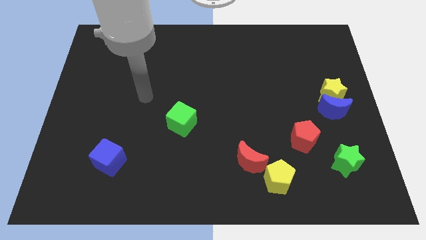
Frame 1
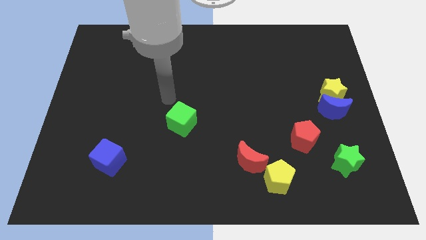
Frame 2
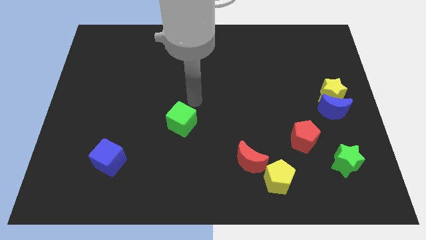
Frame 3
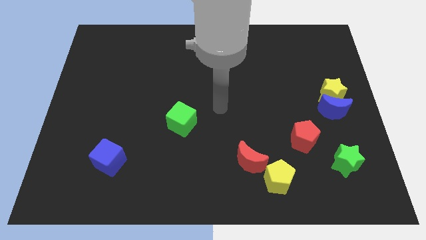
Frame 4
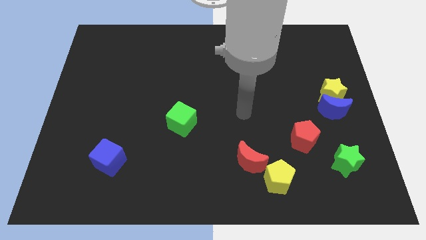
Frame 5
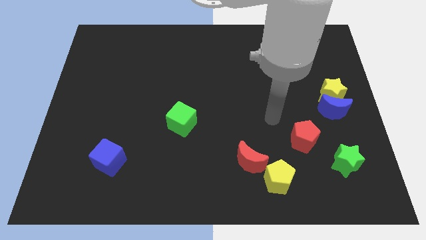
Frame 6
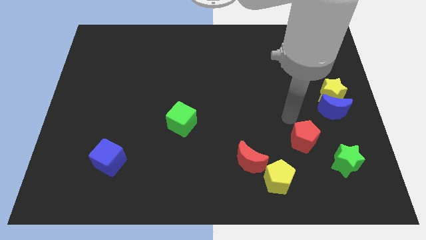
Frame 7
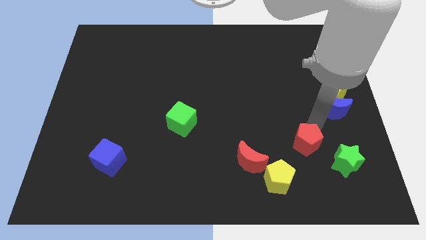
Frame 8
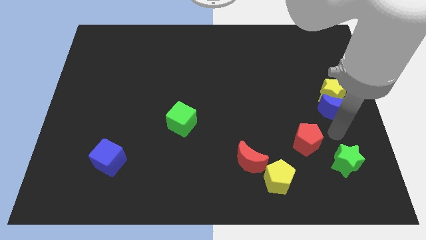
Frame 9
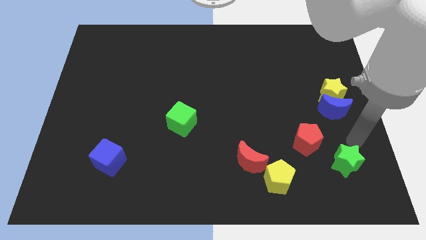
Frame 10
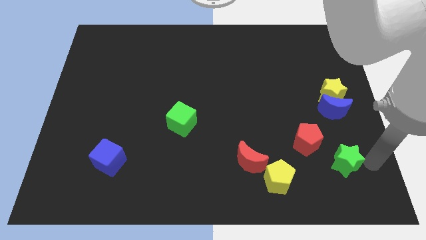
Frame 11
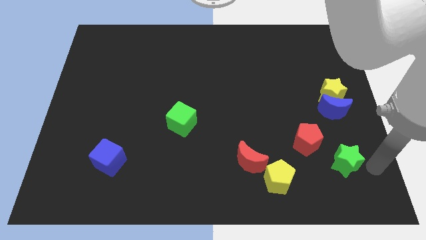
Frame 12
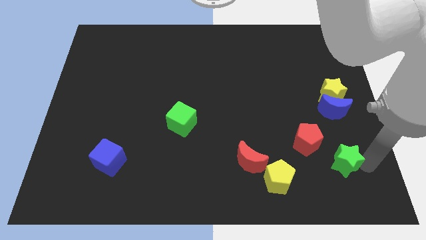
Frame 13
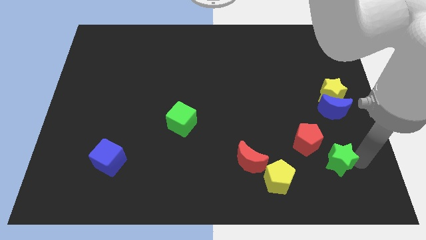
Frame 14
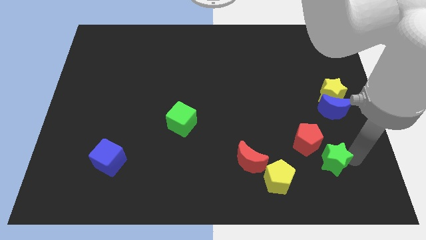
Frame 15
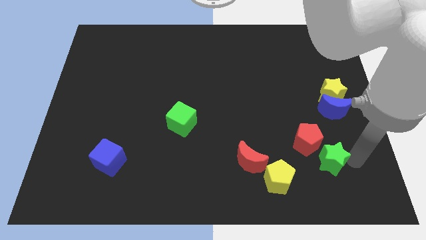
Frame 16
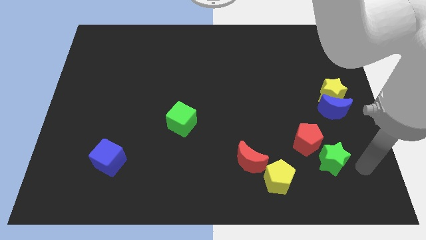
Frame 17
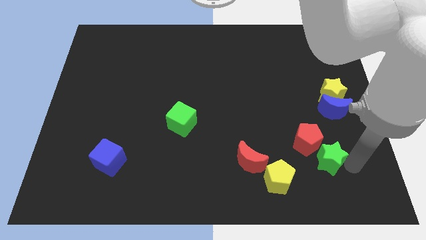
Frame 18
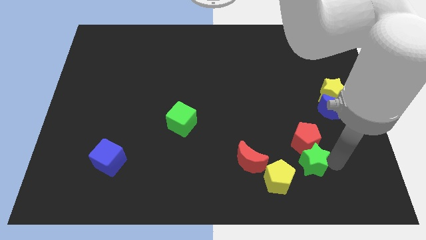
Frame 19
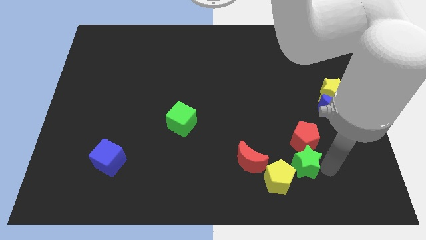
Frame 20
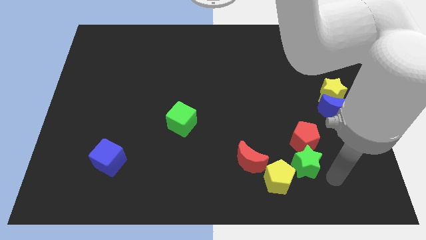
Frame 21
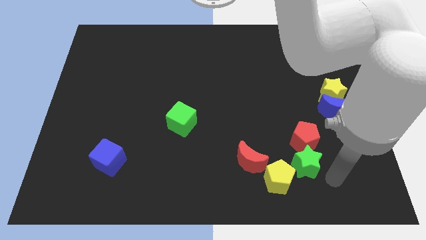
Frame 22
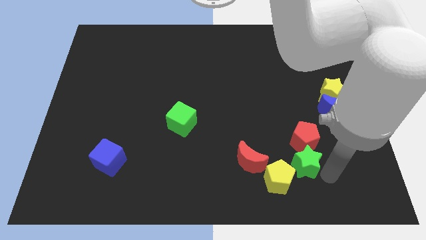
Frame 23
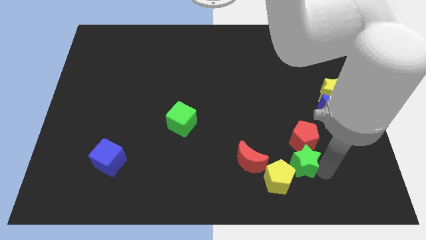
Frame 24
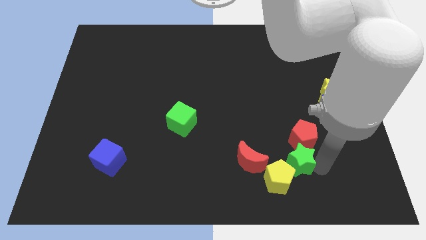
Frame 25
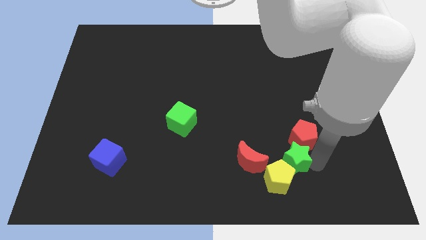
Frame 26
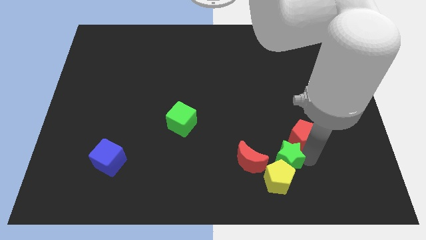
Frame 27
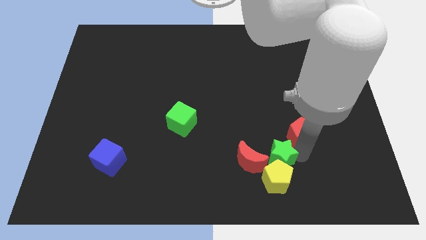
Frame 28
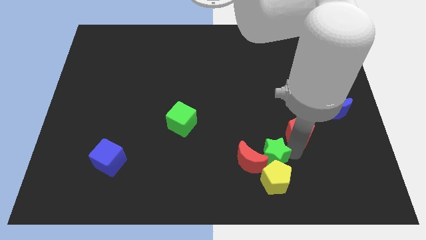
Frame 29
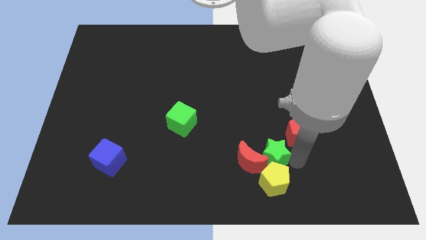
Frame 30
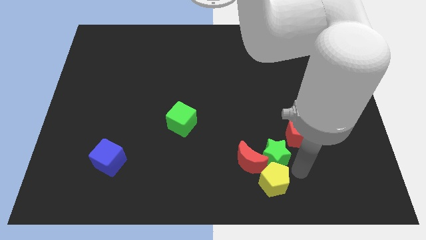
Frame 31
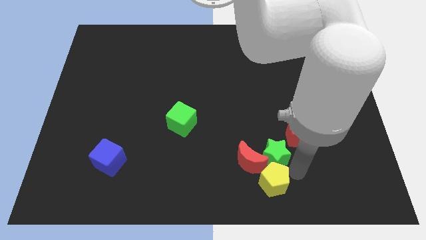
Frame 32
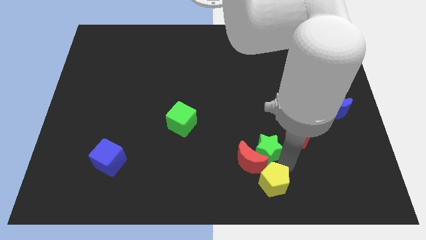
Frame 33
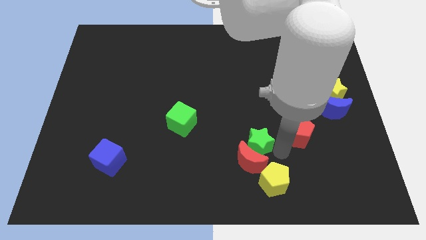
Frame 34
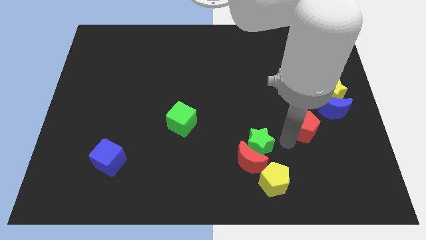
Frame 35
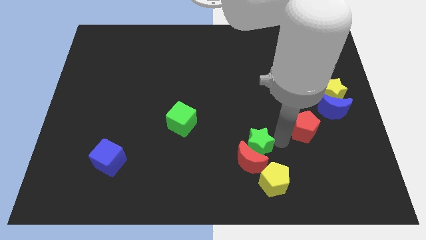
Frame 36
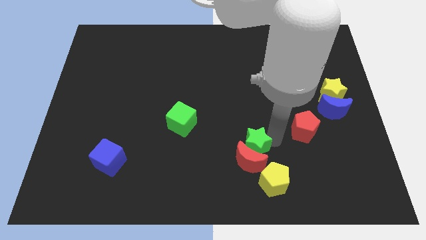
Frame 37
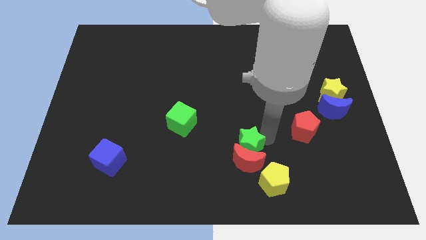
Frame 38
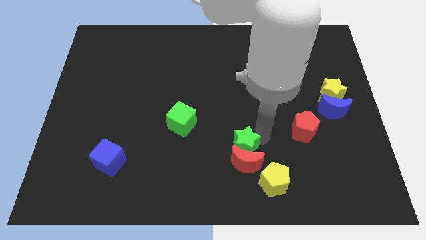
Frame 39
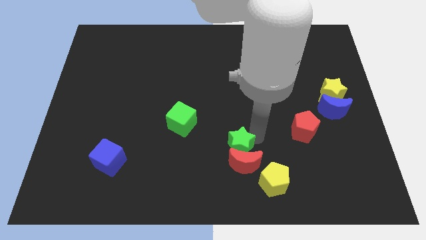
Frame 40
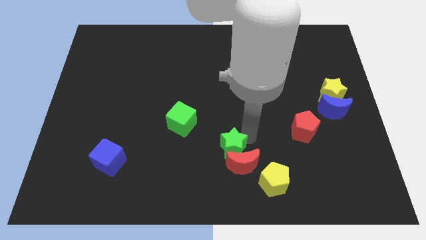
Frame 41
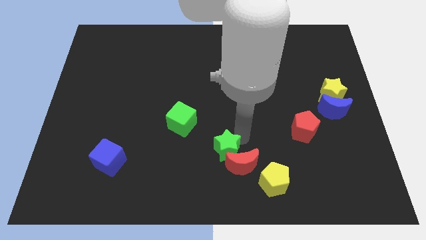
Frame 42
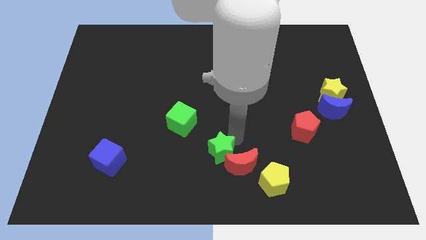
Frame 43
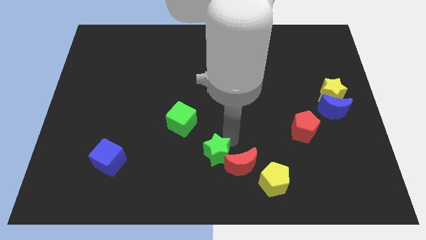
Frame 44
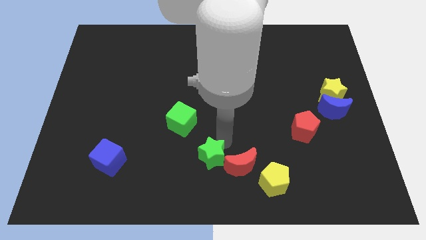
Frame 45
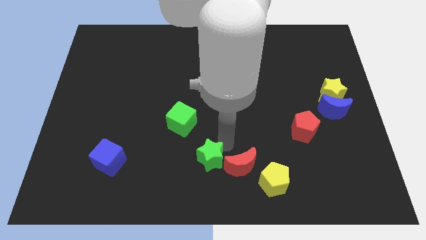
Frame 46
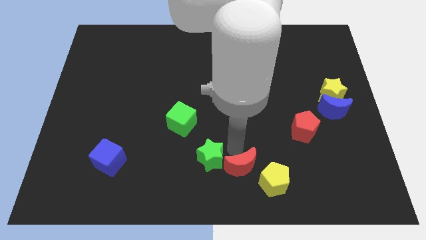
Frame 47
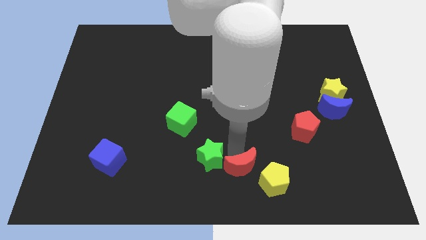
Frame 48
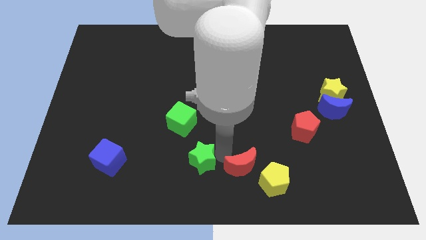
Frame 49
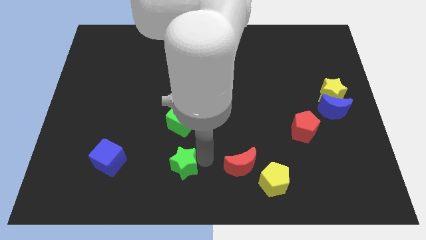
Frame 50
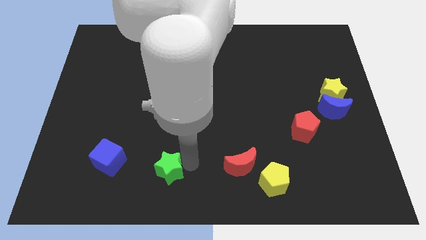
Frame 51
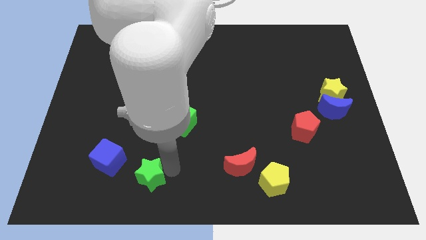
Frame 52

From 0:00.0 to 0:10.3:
push the green star to the bottom right side of the blue cube
